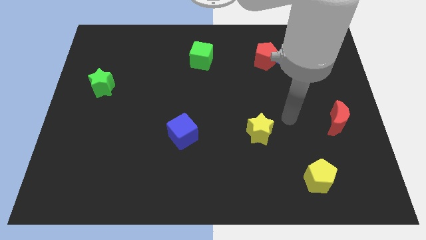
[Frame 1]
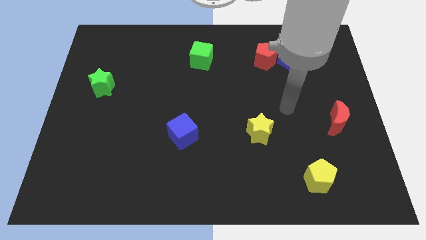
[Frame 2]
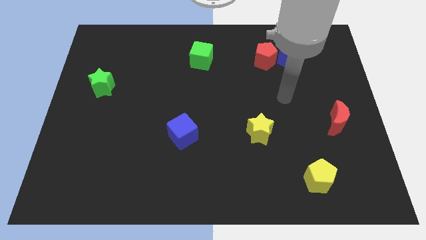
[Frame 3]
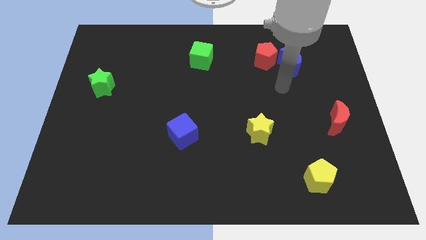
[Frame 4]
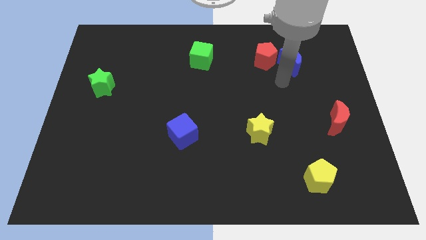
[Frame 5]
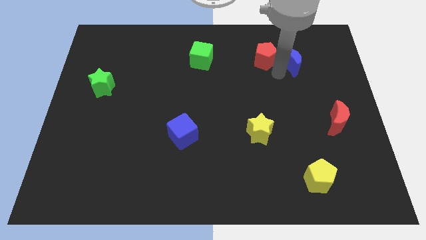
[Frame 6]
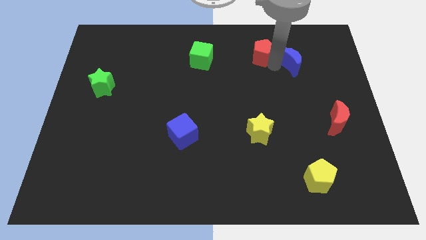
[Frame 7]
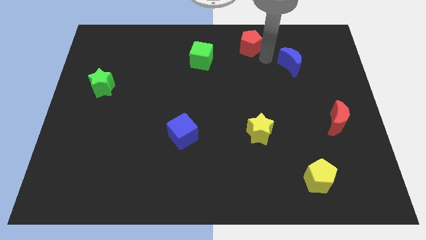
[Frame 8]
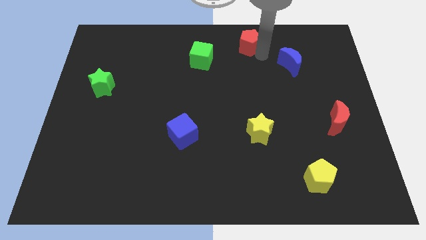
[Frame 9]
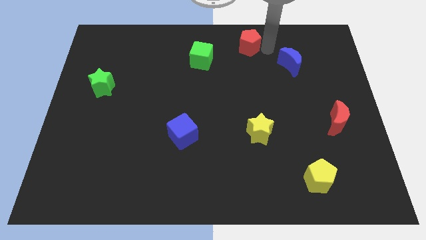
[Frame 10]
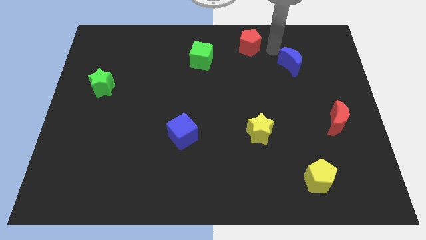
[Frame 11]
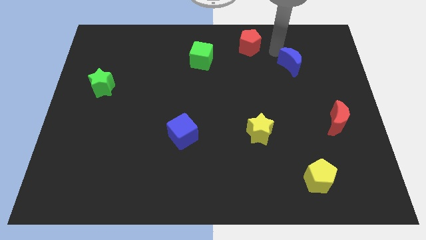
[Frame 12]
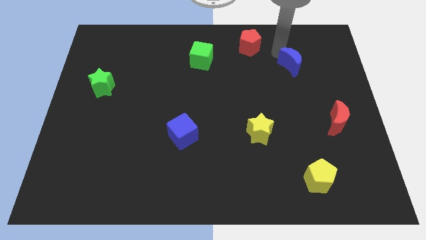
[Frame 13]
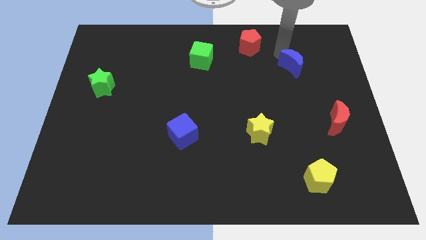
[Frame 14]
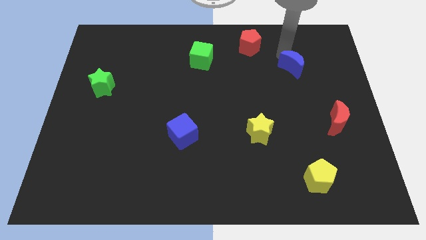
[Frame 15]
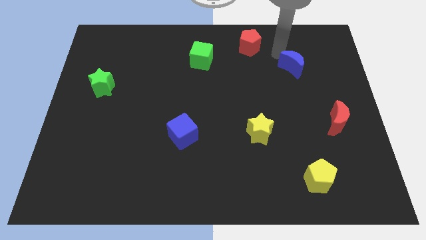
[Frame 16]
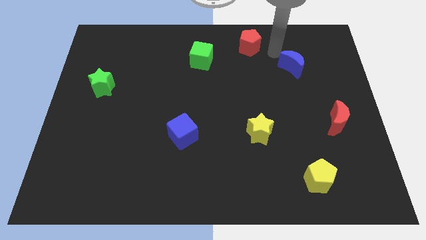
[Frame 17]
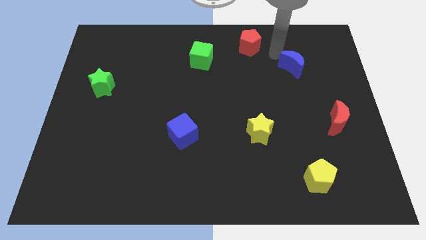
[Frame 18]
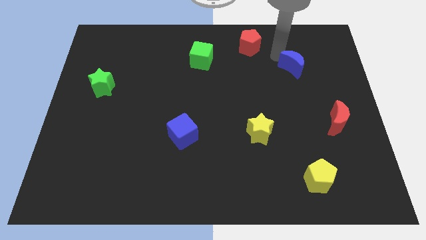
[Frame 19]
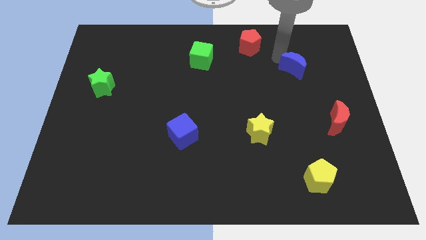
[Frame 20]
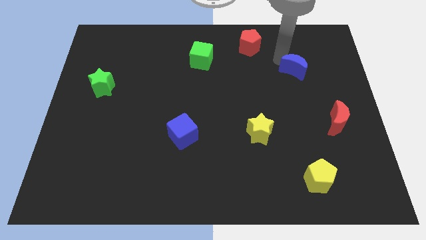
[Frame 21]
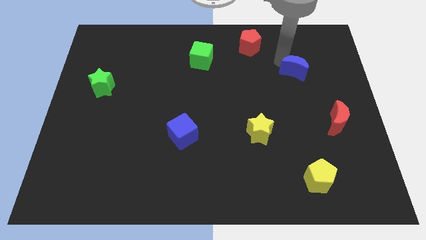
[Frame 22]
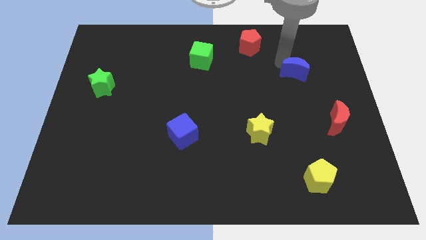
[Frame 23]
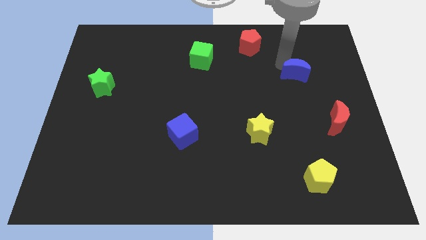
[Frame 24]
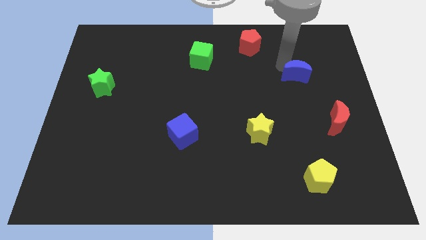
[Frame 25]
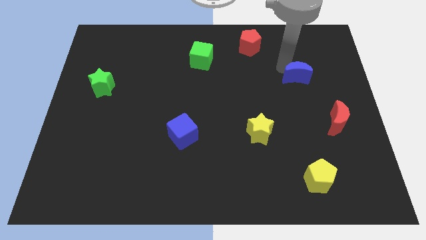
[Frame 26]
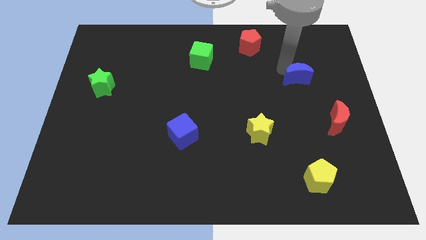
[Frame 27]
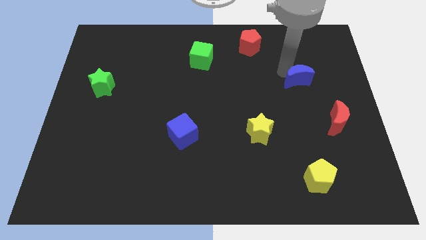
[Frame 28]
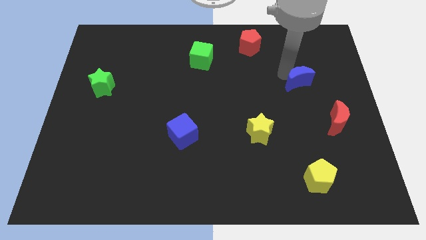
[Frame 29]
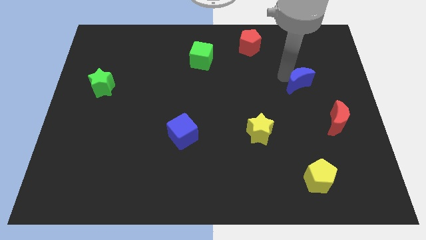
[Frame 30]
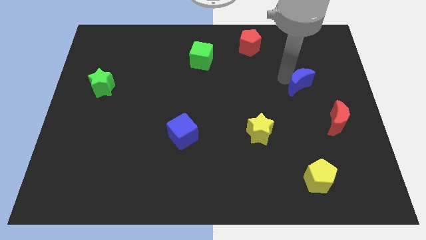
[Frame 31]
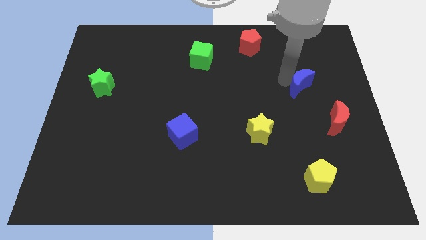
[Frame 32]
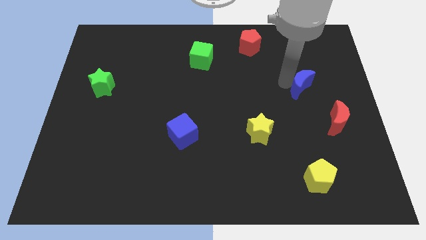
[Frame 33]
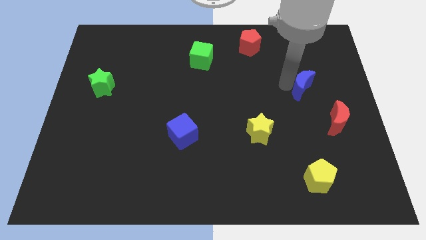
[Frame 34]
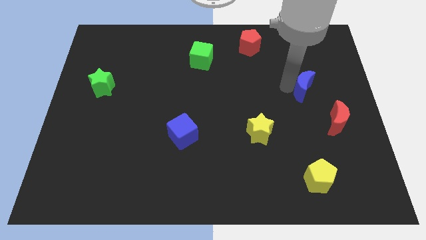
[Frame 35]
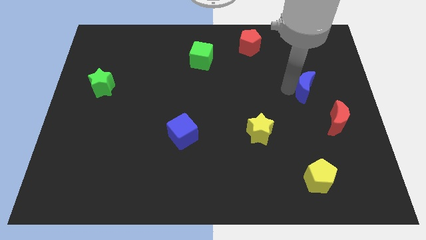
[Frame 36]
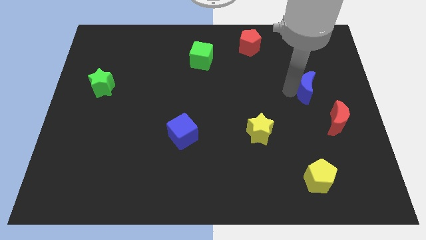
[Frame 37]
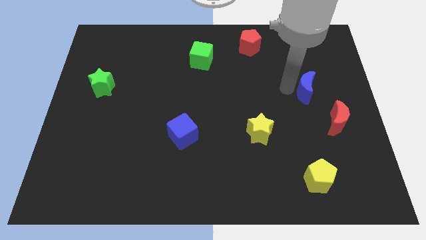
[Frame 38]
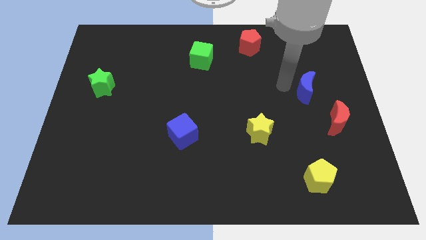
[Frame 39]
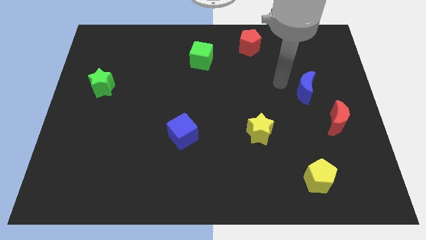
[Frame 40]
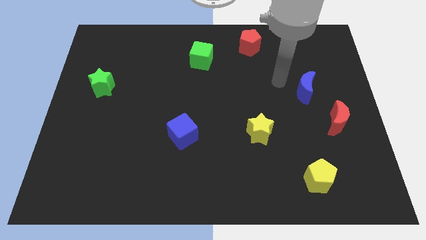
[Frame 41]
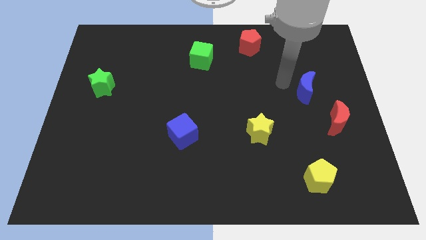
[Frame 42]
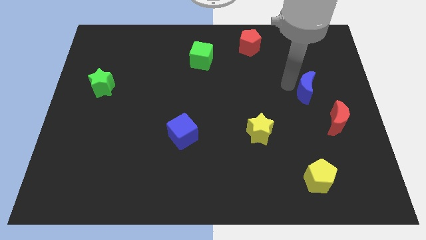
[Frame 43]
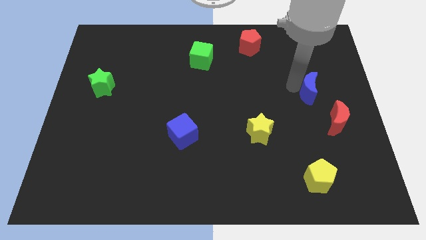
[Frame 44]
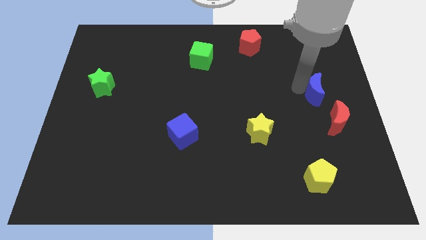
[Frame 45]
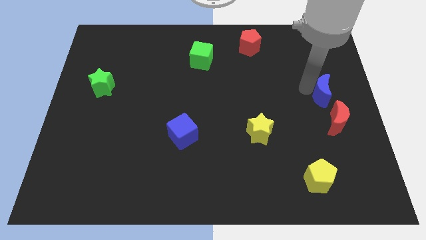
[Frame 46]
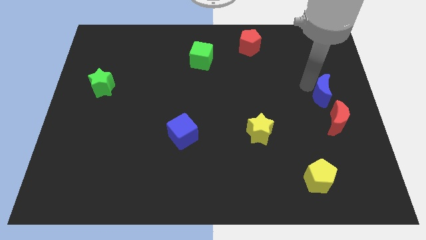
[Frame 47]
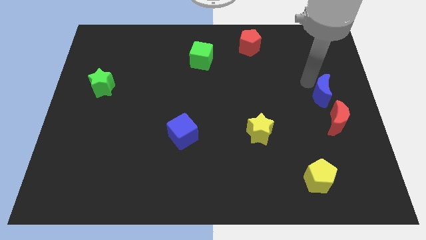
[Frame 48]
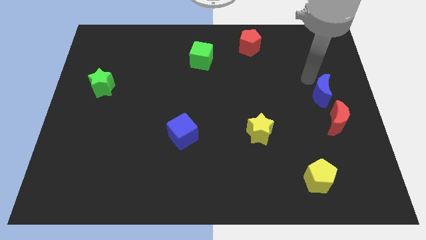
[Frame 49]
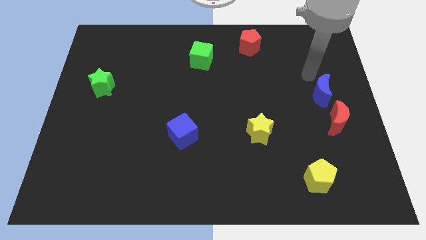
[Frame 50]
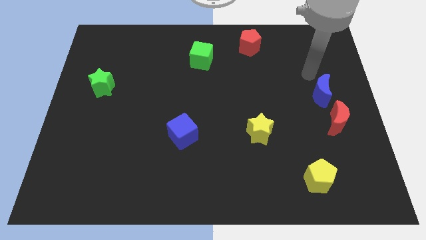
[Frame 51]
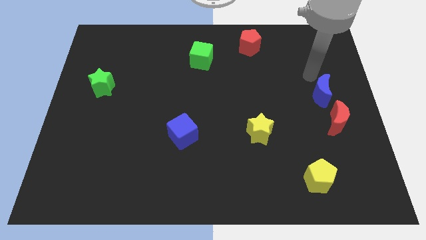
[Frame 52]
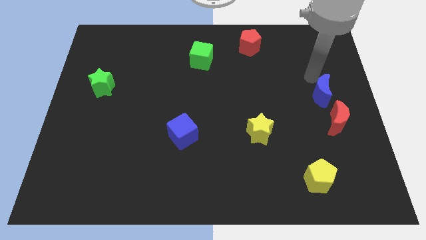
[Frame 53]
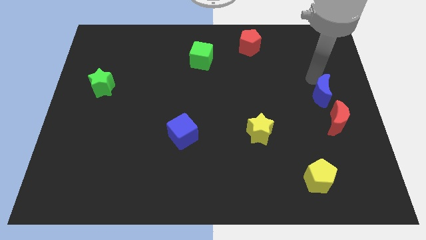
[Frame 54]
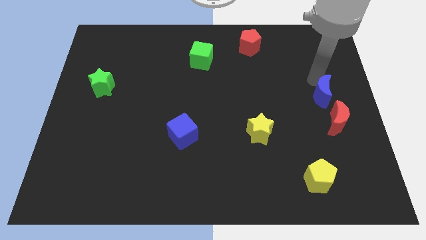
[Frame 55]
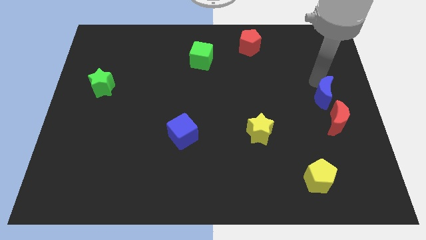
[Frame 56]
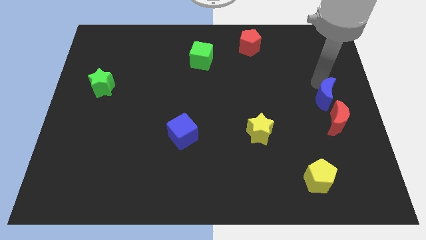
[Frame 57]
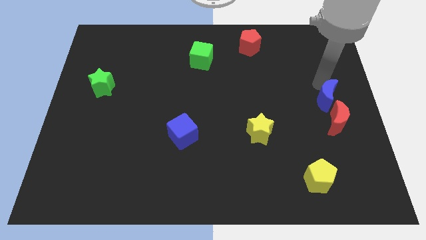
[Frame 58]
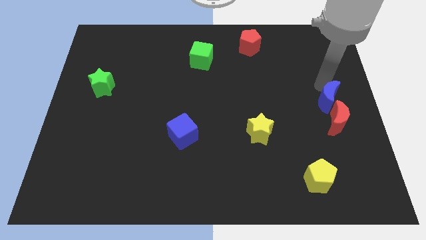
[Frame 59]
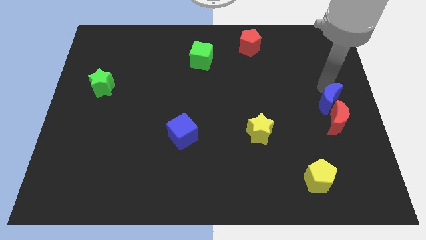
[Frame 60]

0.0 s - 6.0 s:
move the blue moon towards the red moon

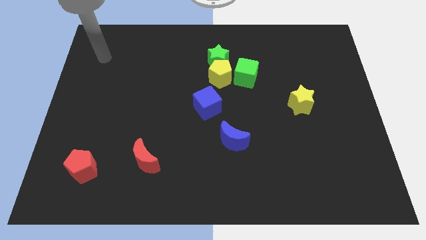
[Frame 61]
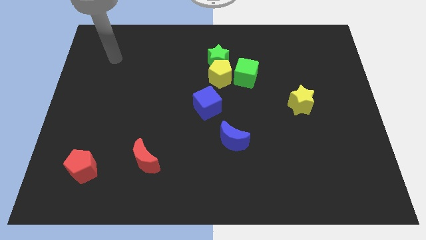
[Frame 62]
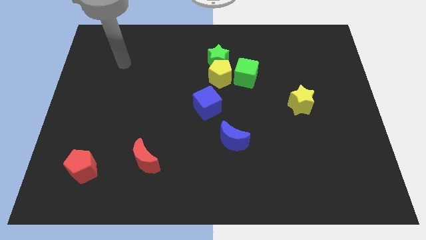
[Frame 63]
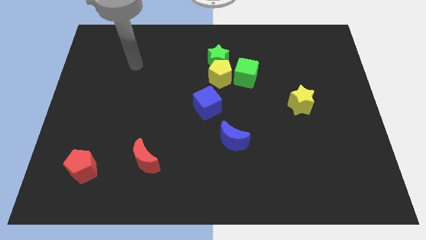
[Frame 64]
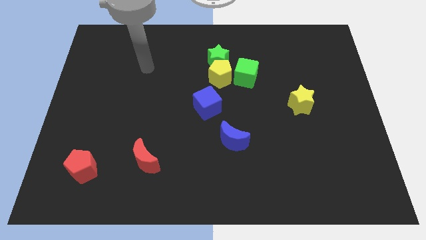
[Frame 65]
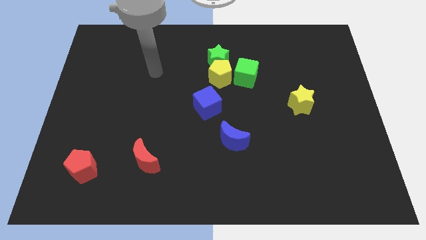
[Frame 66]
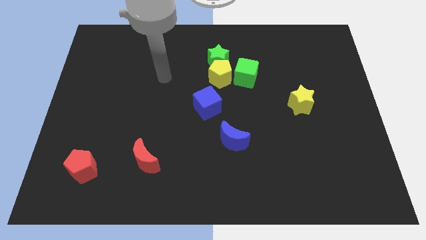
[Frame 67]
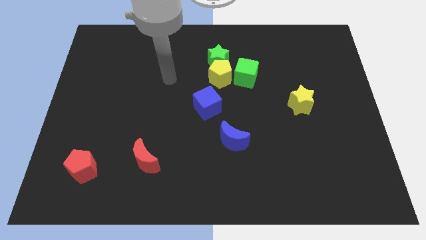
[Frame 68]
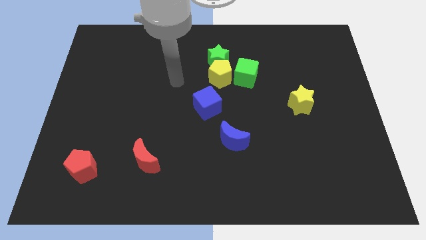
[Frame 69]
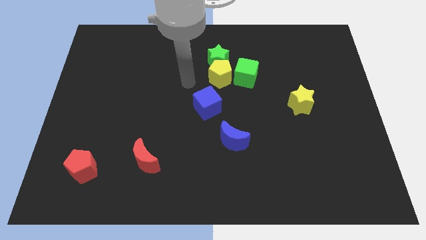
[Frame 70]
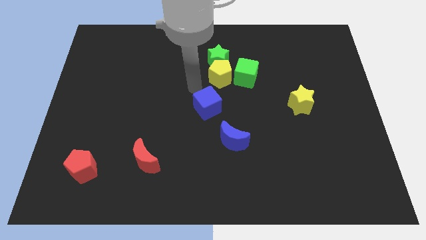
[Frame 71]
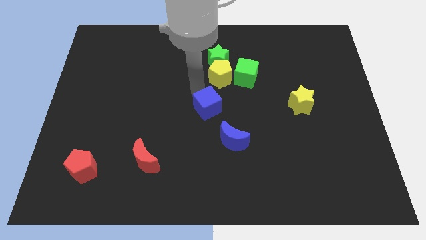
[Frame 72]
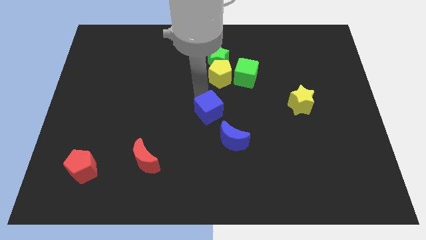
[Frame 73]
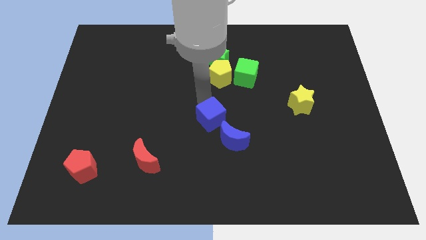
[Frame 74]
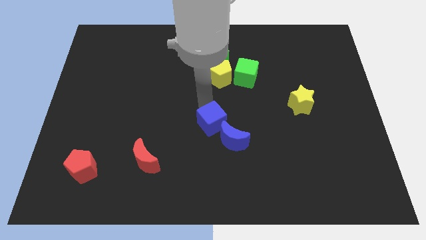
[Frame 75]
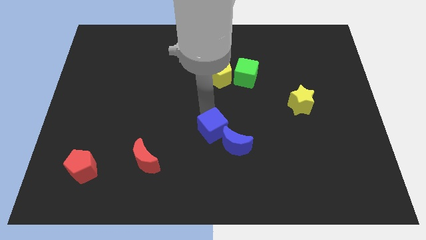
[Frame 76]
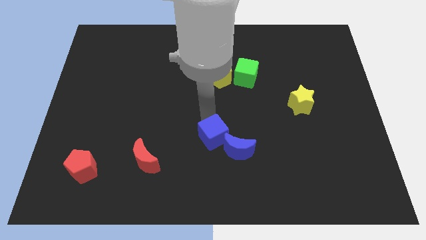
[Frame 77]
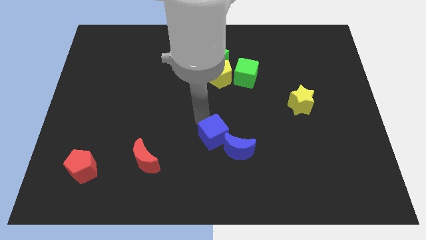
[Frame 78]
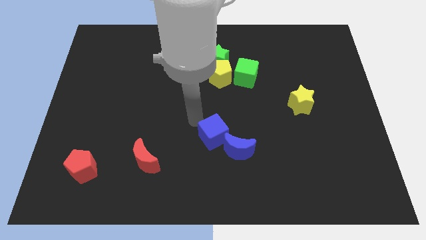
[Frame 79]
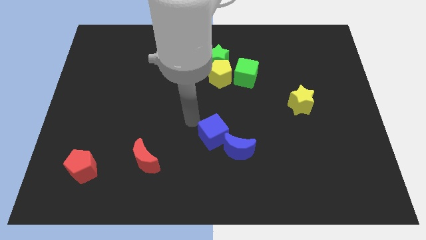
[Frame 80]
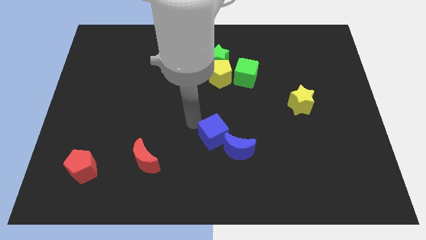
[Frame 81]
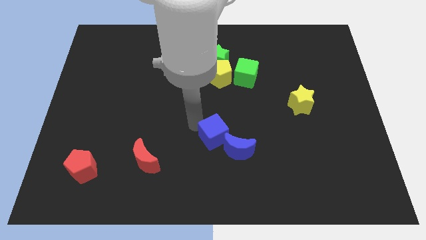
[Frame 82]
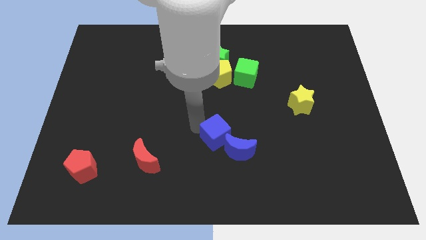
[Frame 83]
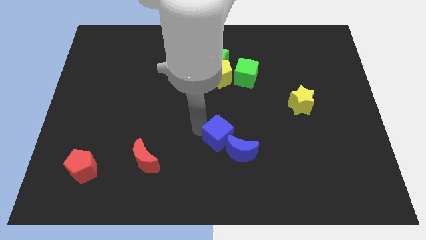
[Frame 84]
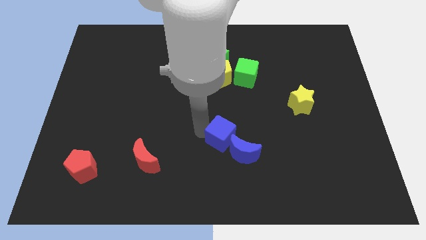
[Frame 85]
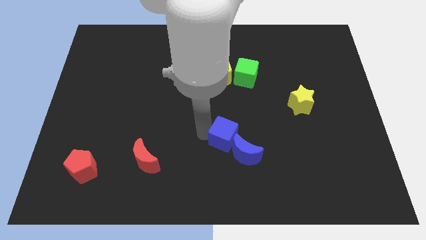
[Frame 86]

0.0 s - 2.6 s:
move the blue cube next to the blue moon
